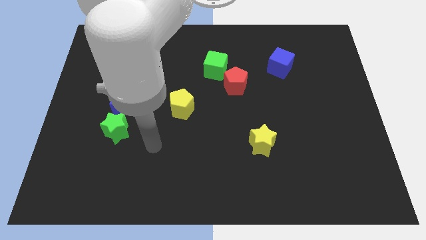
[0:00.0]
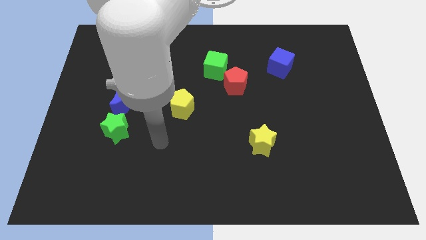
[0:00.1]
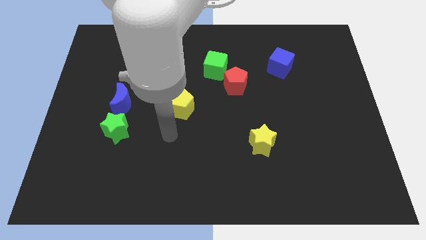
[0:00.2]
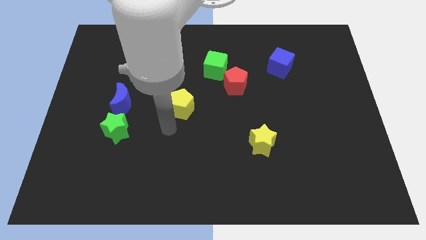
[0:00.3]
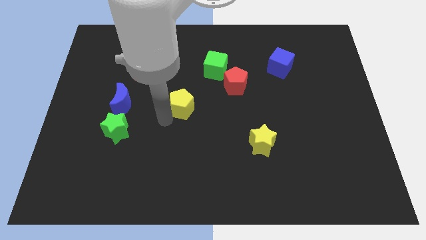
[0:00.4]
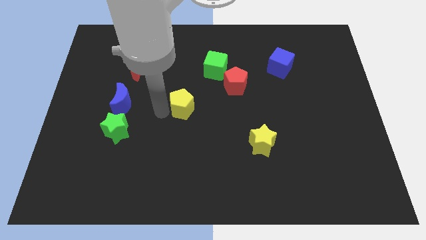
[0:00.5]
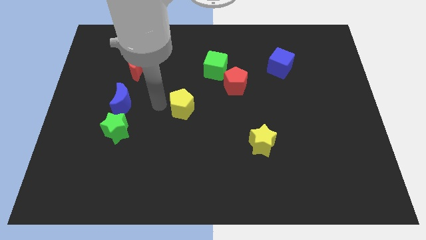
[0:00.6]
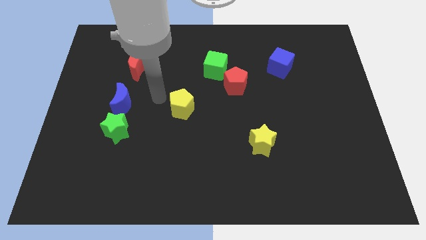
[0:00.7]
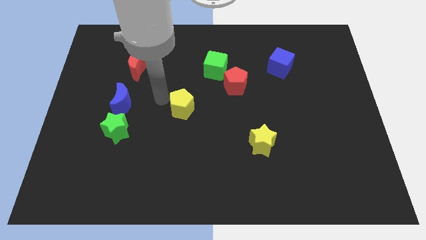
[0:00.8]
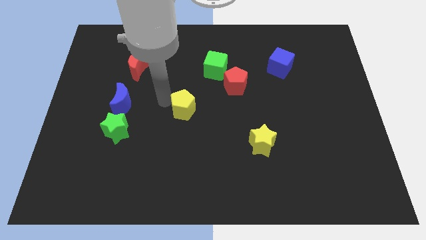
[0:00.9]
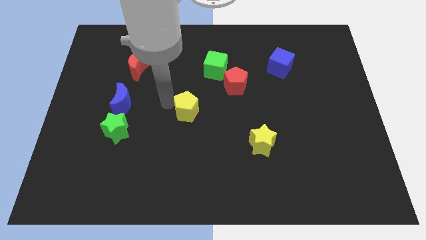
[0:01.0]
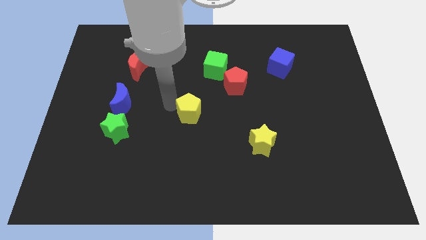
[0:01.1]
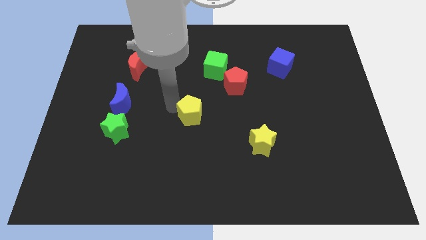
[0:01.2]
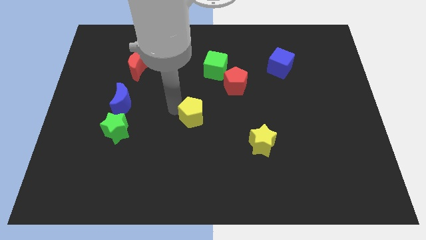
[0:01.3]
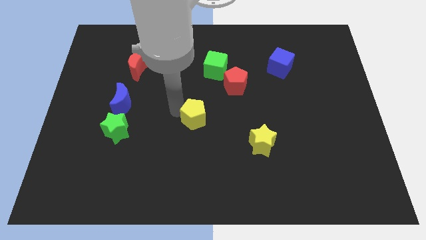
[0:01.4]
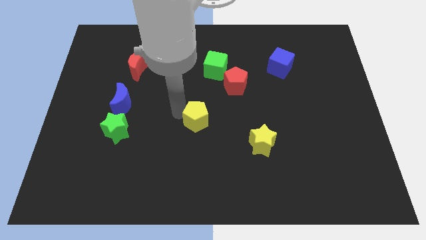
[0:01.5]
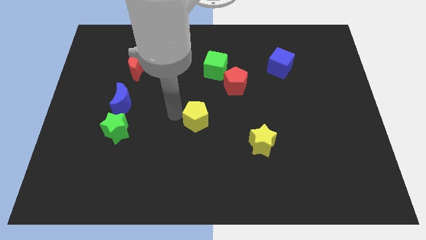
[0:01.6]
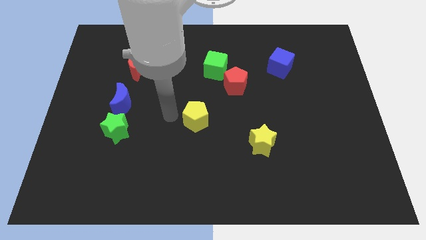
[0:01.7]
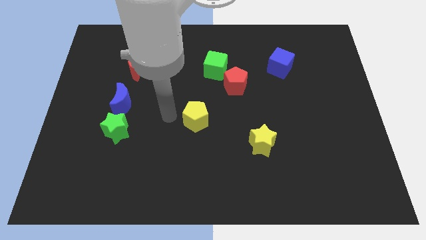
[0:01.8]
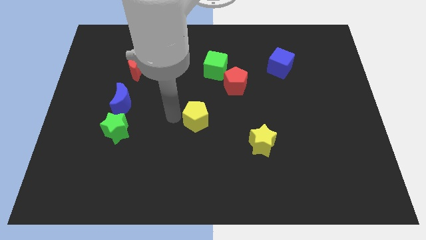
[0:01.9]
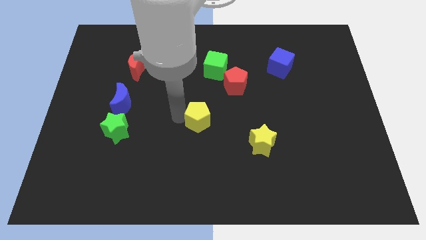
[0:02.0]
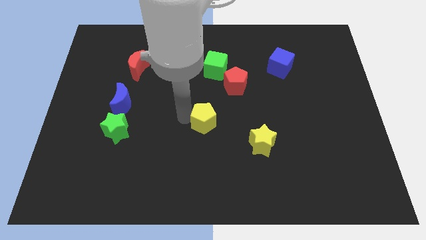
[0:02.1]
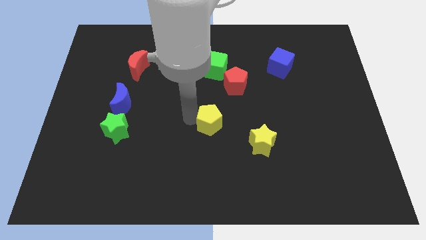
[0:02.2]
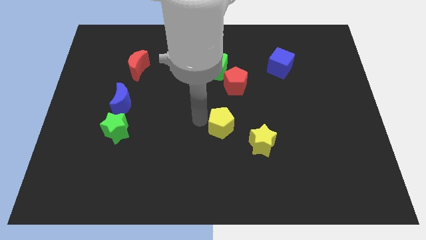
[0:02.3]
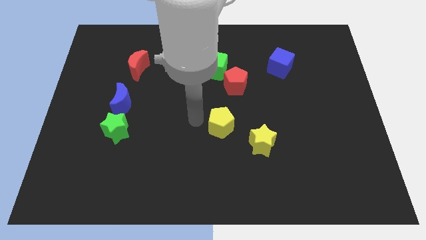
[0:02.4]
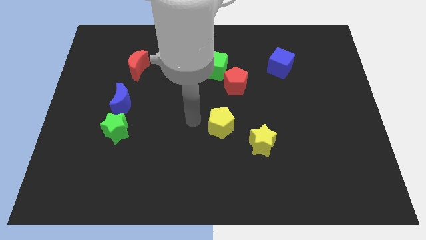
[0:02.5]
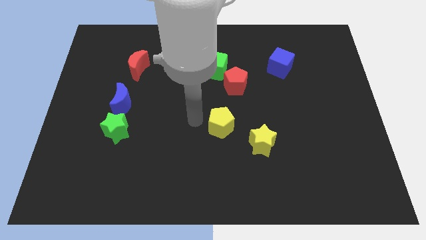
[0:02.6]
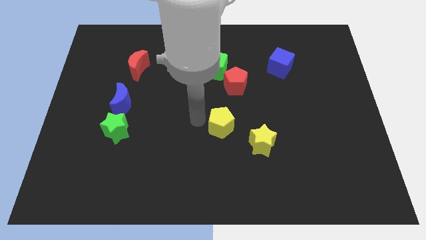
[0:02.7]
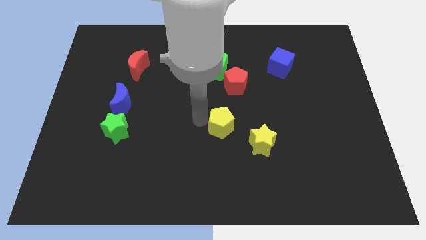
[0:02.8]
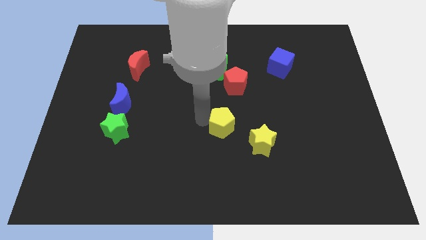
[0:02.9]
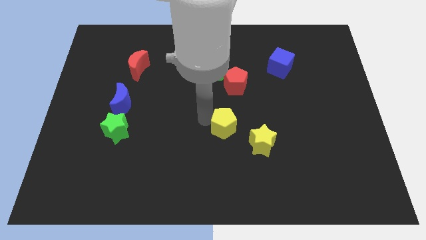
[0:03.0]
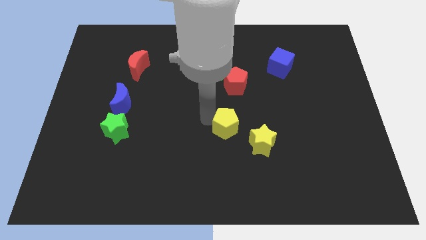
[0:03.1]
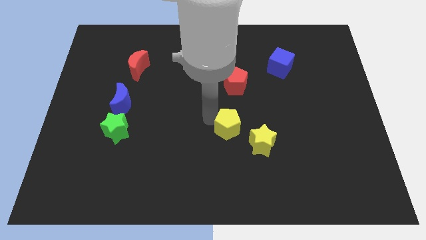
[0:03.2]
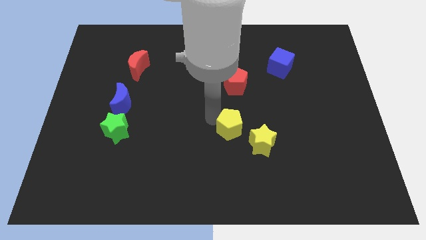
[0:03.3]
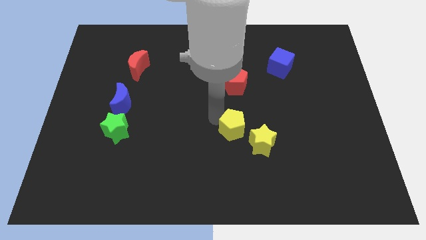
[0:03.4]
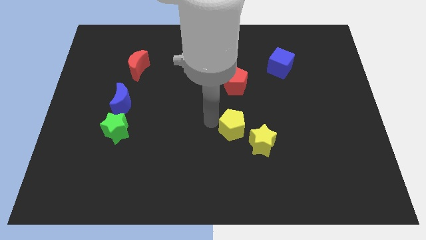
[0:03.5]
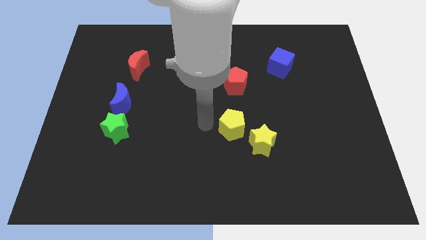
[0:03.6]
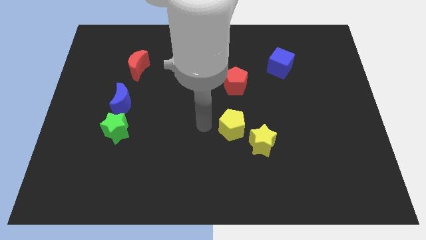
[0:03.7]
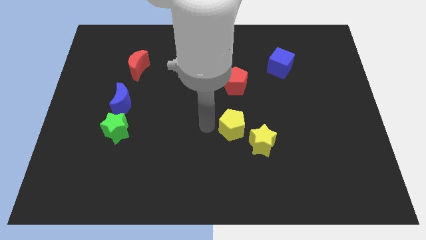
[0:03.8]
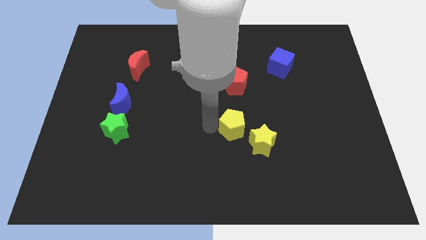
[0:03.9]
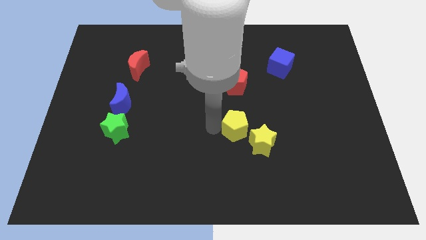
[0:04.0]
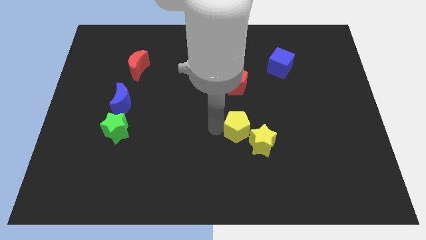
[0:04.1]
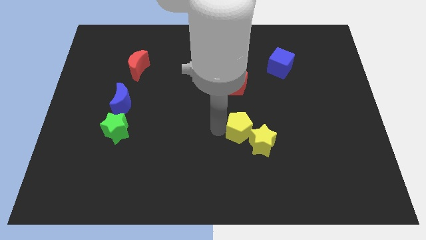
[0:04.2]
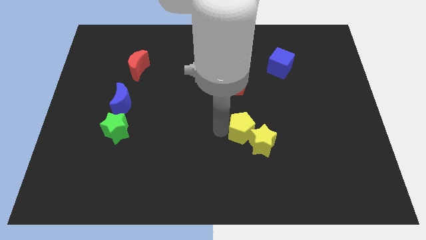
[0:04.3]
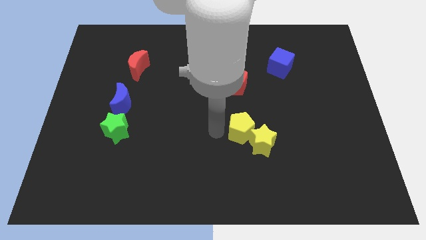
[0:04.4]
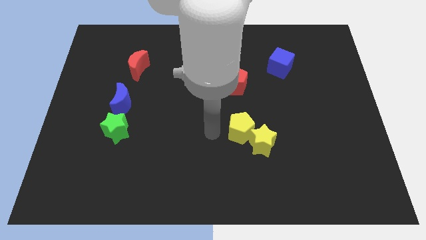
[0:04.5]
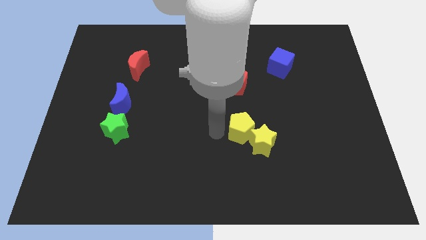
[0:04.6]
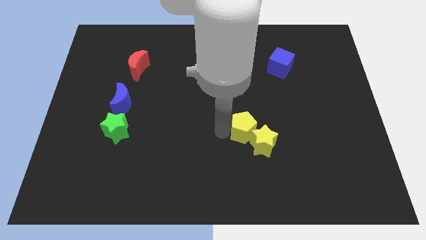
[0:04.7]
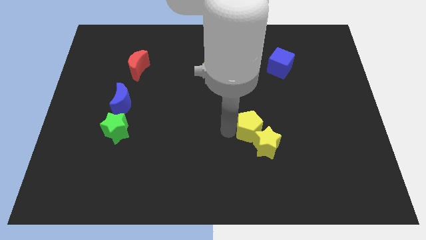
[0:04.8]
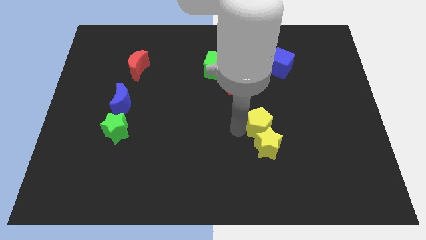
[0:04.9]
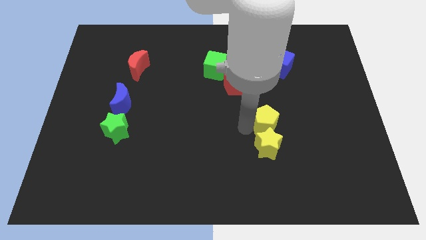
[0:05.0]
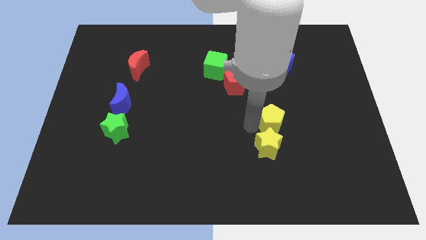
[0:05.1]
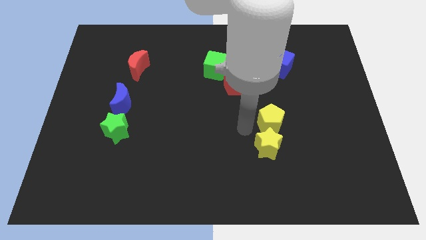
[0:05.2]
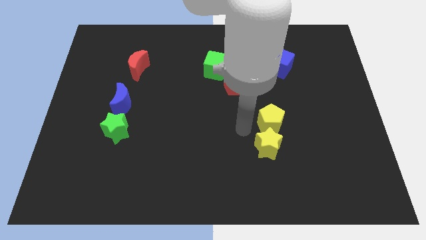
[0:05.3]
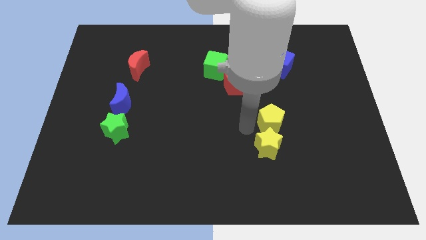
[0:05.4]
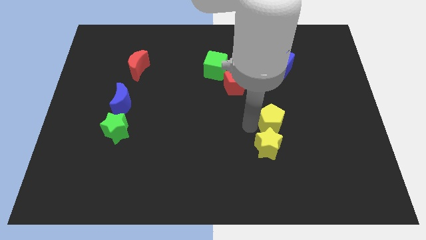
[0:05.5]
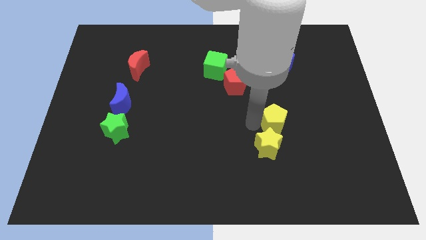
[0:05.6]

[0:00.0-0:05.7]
move the yellow pentagon right

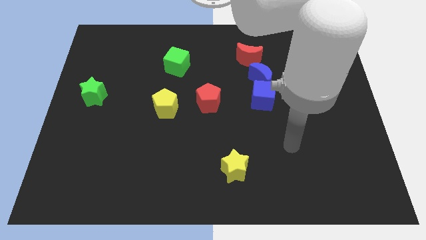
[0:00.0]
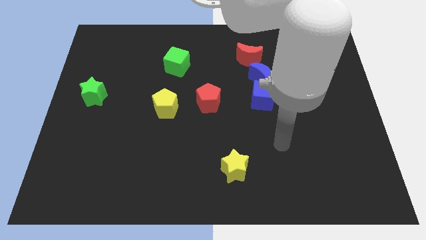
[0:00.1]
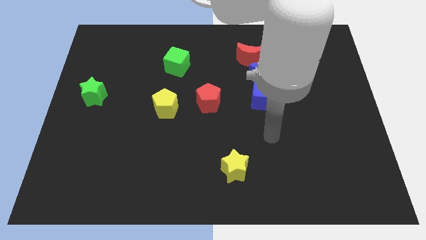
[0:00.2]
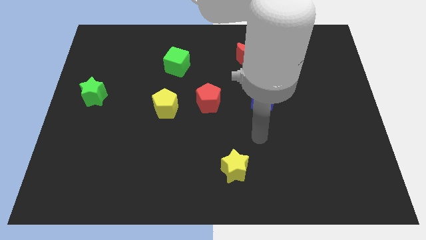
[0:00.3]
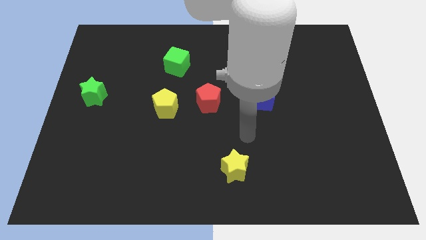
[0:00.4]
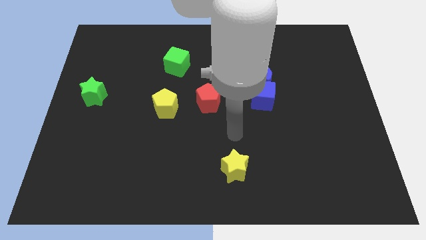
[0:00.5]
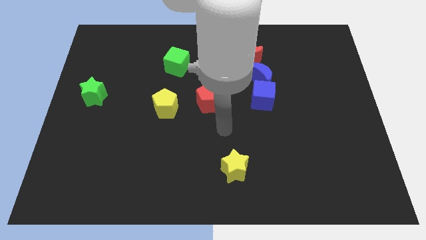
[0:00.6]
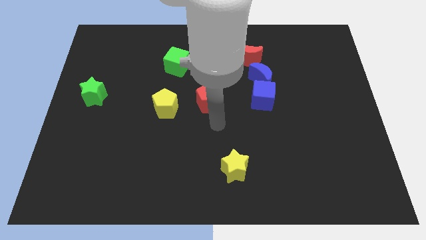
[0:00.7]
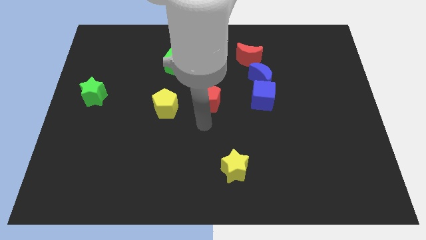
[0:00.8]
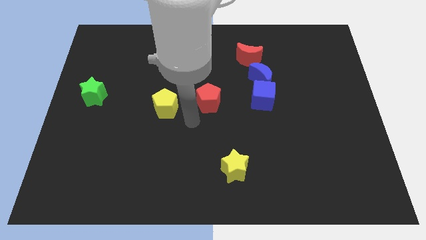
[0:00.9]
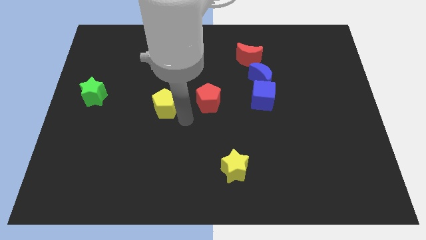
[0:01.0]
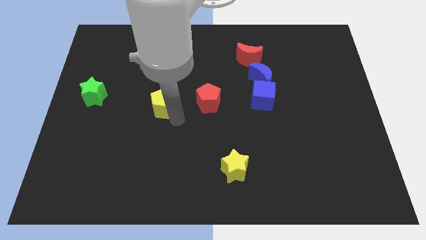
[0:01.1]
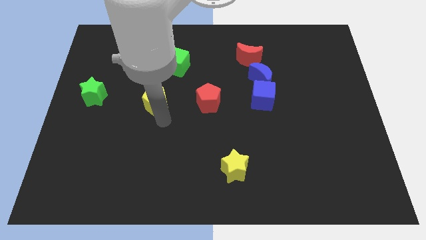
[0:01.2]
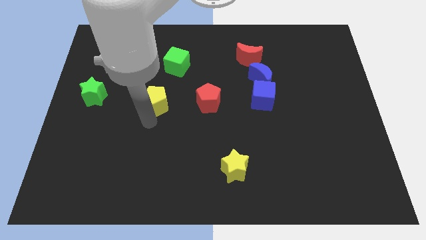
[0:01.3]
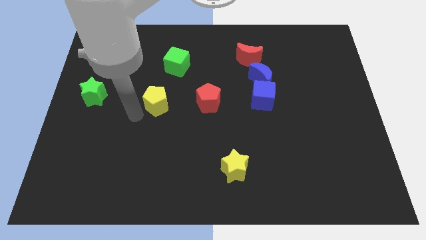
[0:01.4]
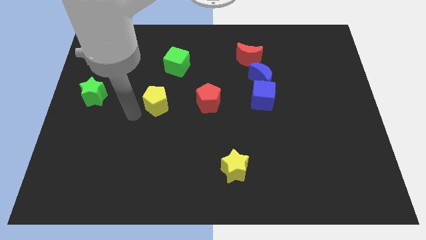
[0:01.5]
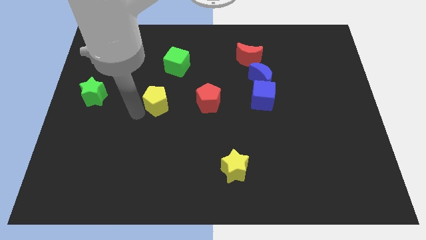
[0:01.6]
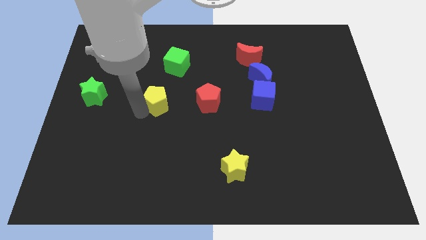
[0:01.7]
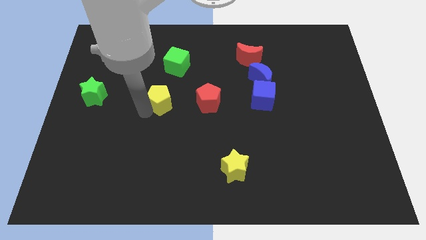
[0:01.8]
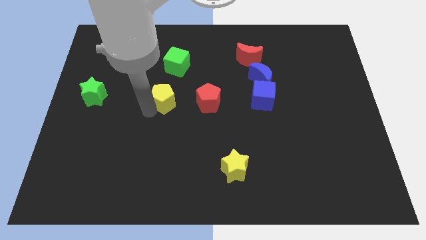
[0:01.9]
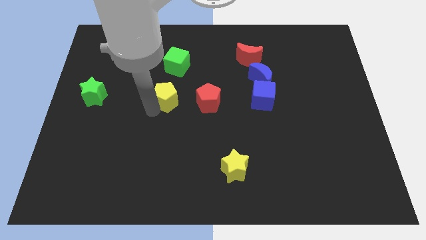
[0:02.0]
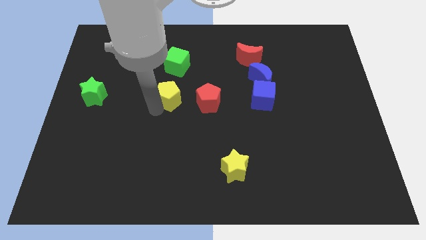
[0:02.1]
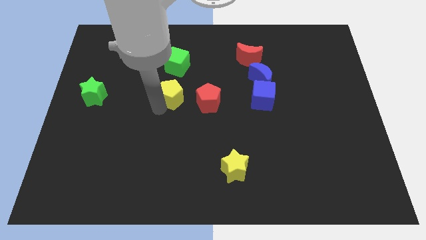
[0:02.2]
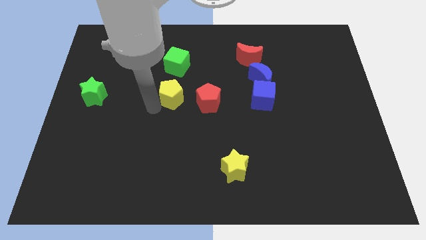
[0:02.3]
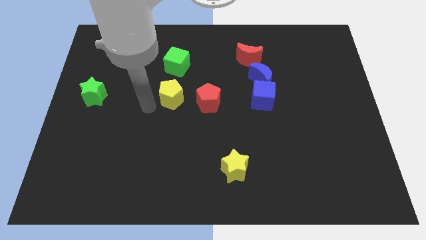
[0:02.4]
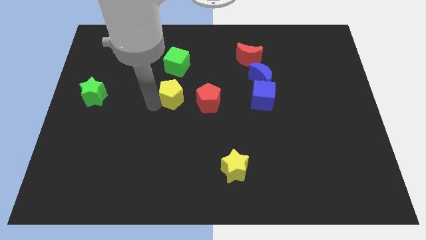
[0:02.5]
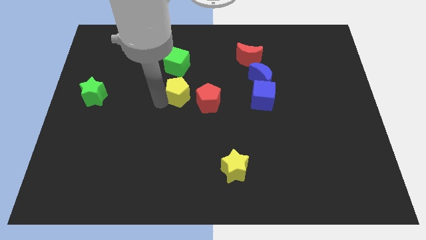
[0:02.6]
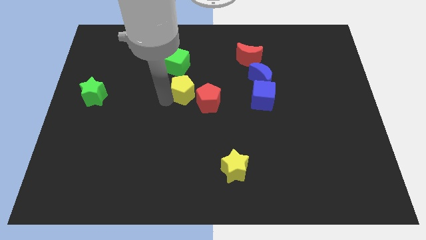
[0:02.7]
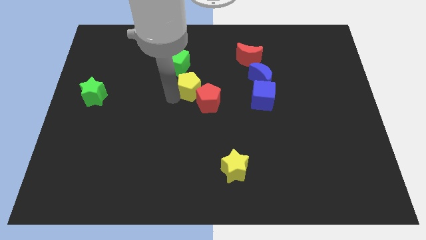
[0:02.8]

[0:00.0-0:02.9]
move the yellow pentagon up and right diagonally a bit
